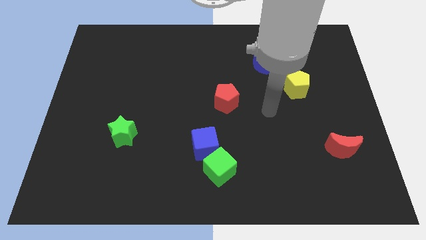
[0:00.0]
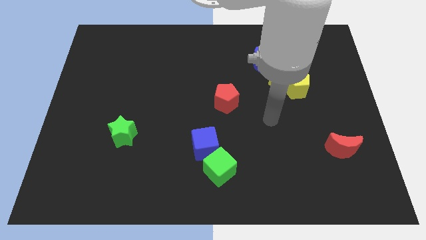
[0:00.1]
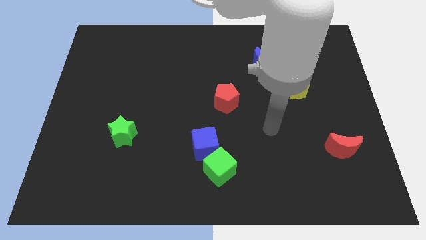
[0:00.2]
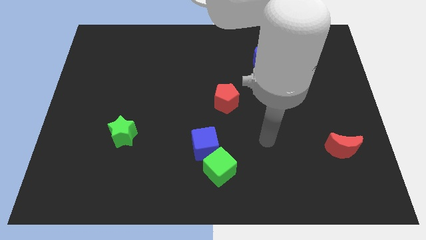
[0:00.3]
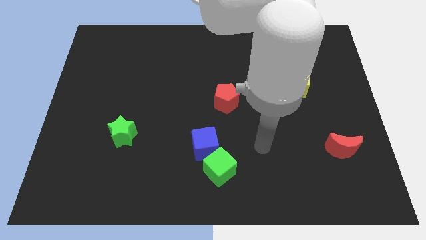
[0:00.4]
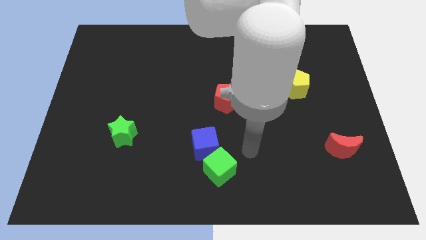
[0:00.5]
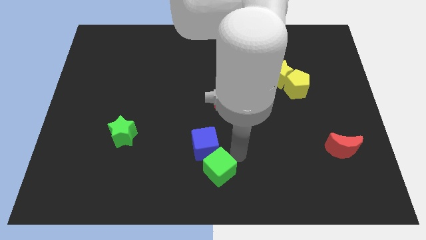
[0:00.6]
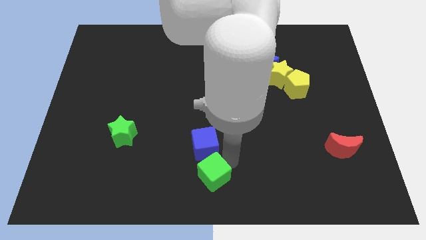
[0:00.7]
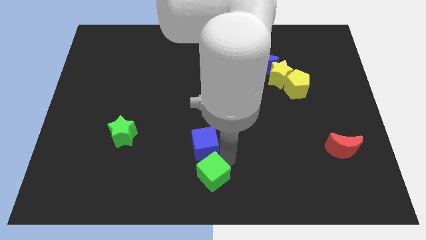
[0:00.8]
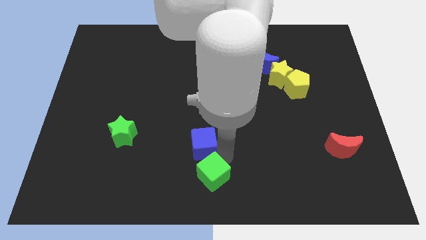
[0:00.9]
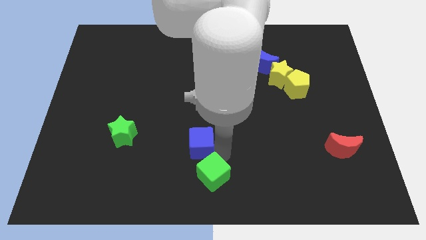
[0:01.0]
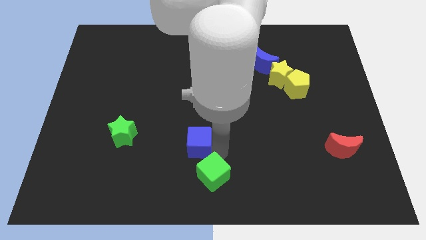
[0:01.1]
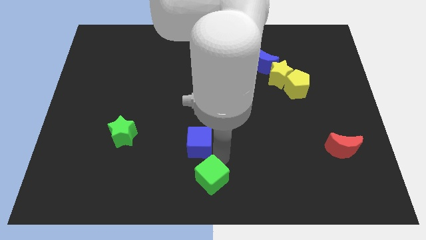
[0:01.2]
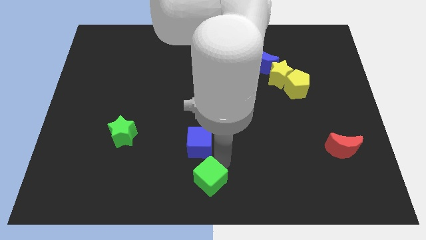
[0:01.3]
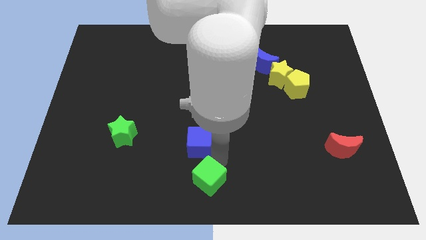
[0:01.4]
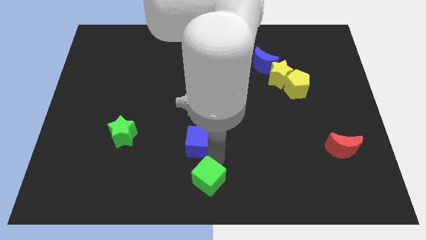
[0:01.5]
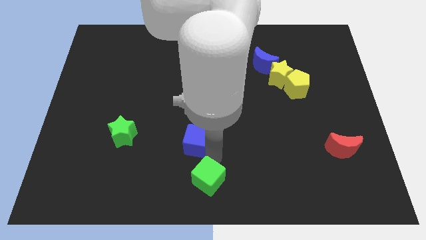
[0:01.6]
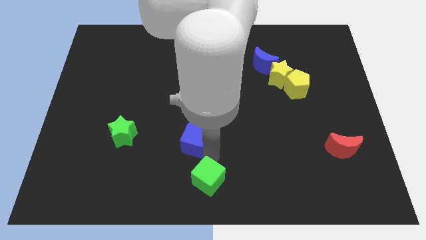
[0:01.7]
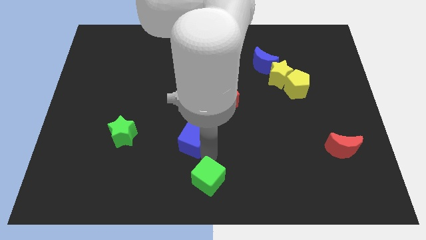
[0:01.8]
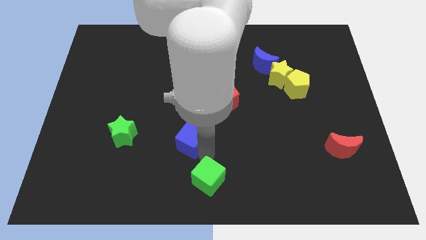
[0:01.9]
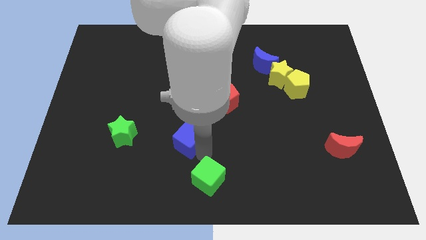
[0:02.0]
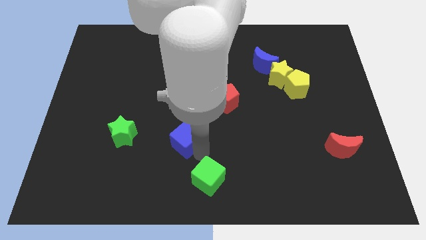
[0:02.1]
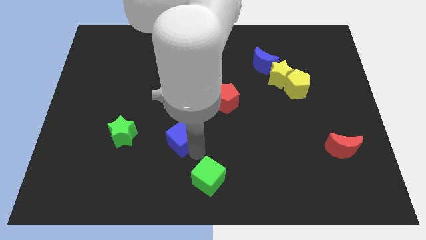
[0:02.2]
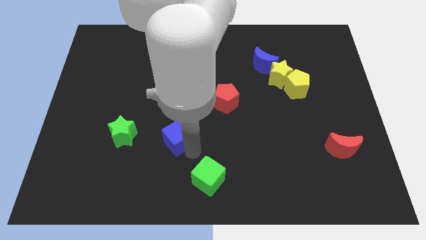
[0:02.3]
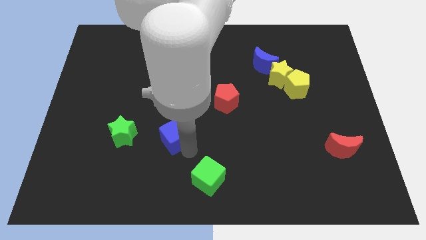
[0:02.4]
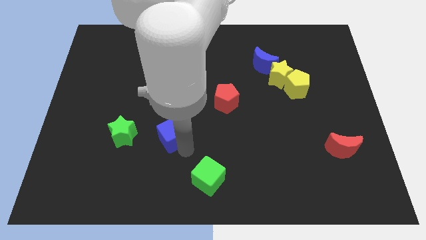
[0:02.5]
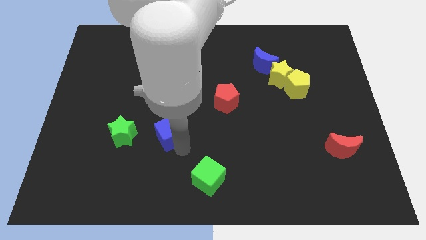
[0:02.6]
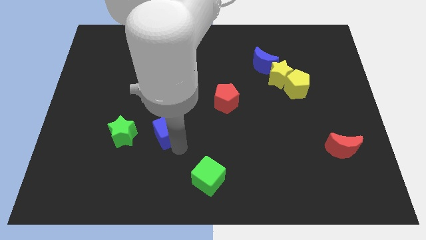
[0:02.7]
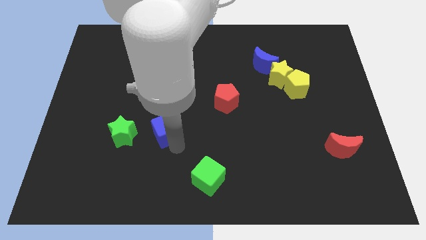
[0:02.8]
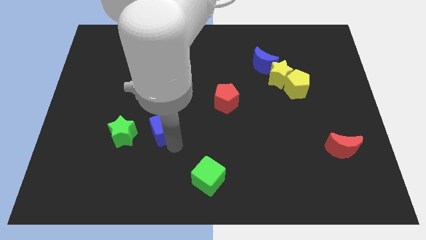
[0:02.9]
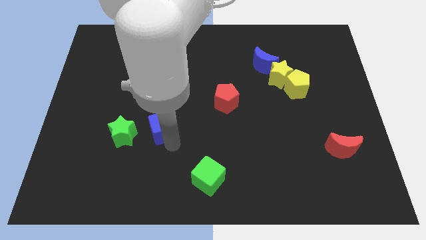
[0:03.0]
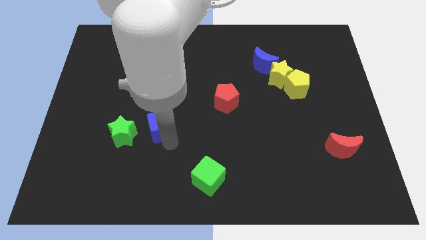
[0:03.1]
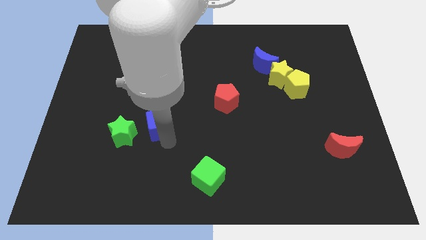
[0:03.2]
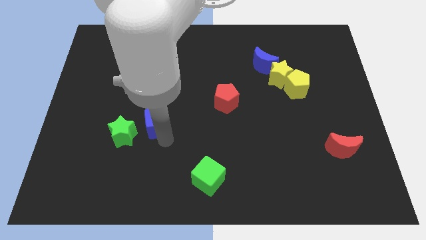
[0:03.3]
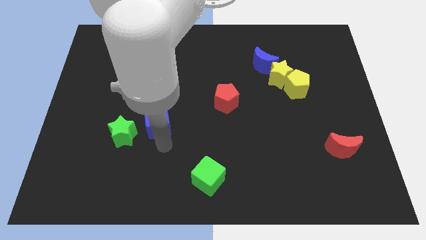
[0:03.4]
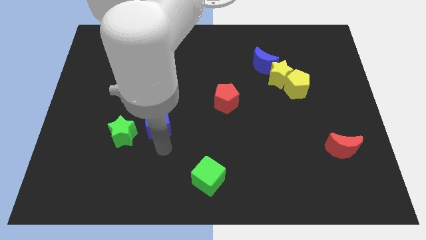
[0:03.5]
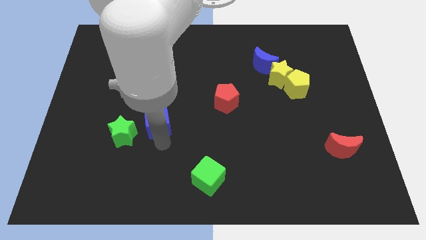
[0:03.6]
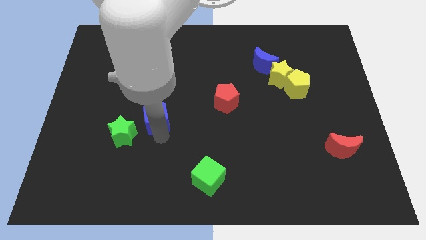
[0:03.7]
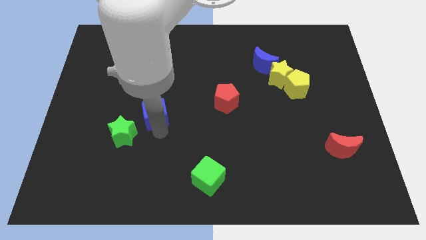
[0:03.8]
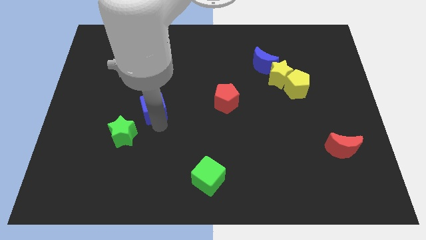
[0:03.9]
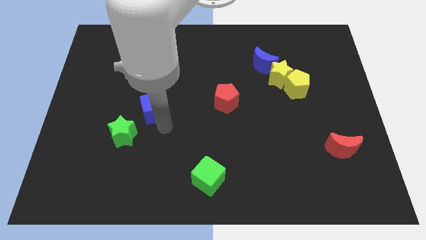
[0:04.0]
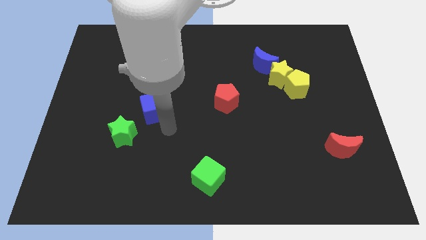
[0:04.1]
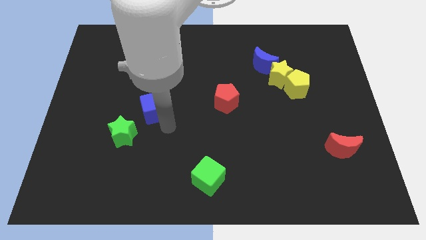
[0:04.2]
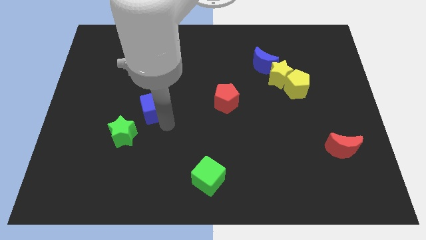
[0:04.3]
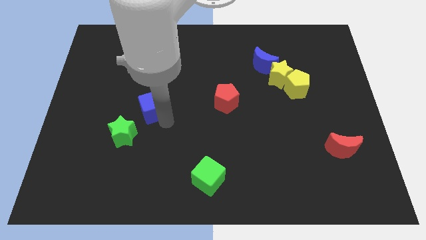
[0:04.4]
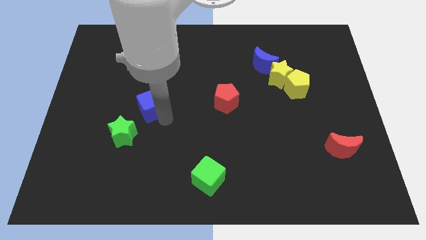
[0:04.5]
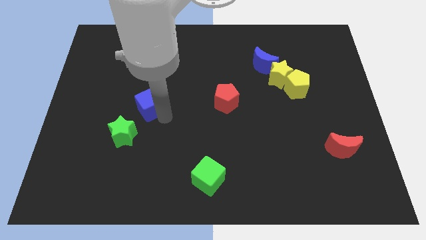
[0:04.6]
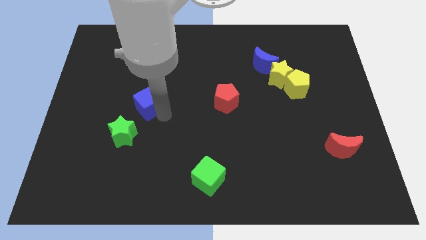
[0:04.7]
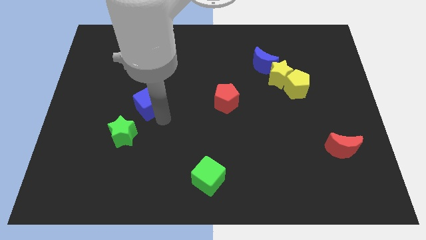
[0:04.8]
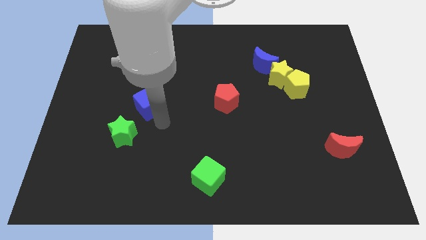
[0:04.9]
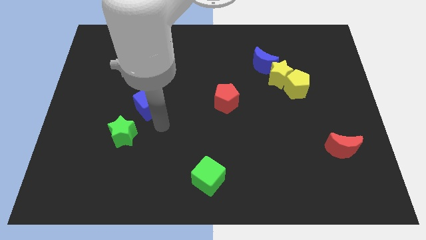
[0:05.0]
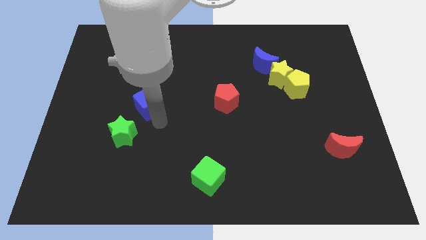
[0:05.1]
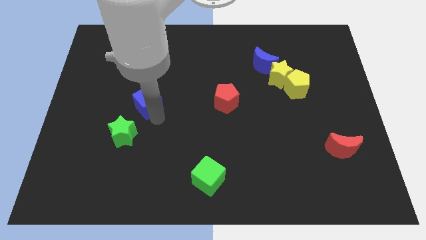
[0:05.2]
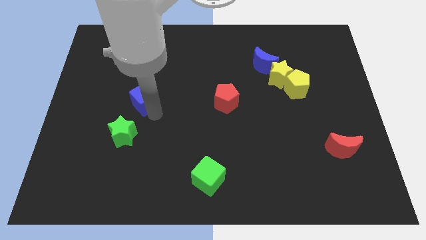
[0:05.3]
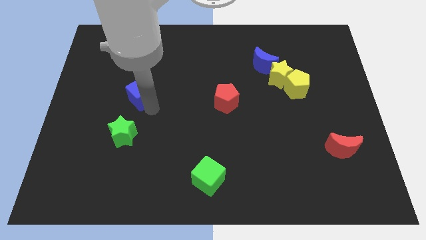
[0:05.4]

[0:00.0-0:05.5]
move the blue cube upwards and to the left diagonally

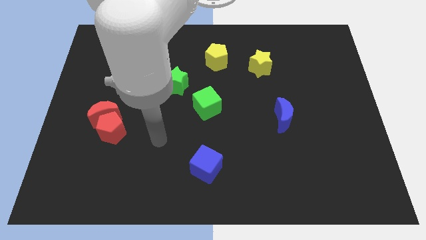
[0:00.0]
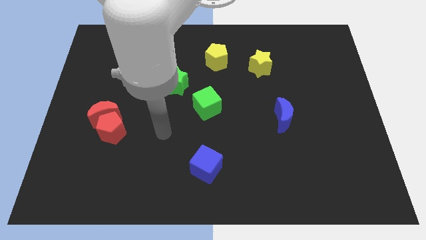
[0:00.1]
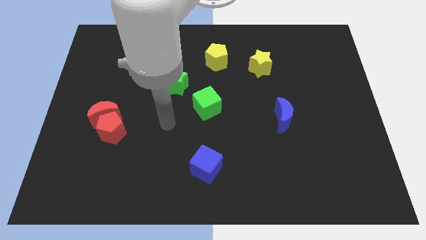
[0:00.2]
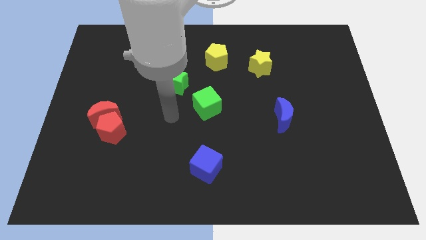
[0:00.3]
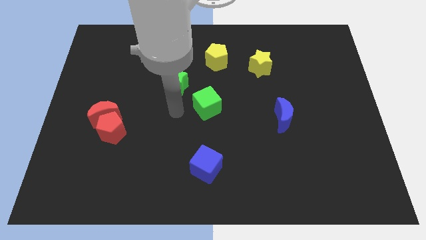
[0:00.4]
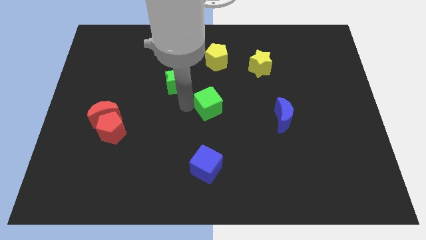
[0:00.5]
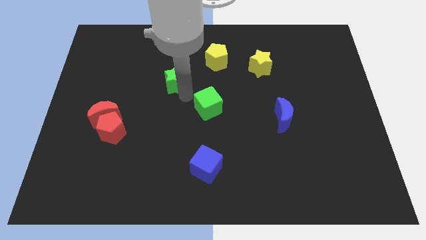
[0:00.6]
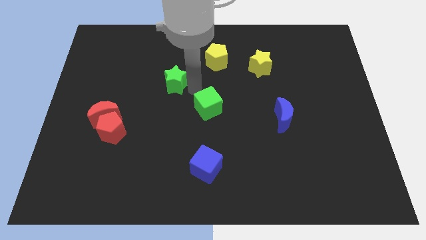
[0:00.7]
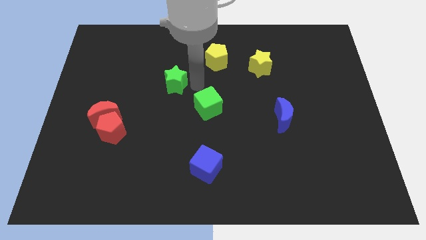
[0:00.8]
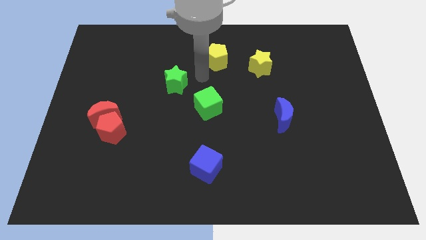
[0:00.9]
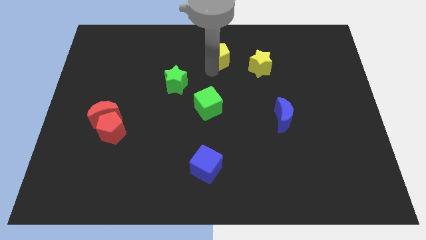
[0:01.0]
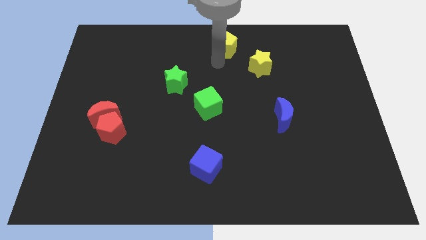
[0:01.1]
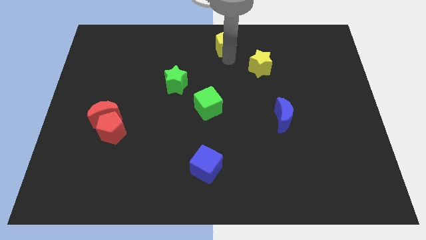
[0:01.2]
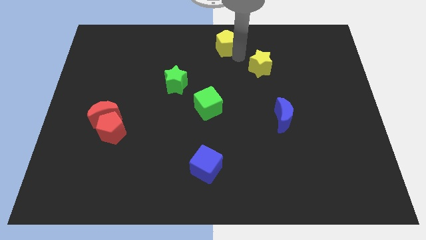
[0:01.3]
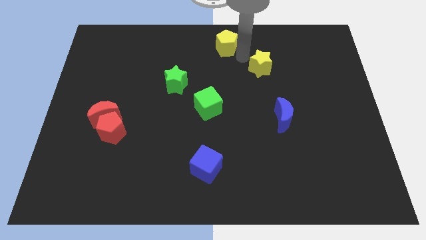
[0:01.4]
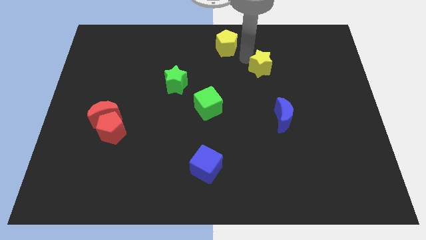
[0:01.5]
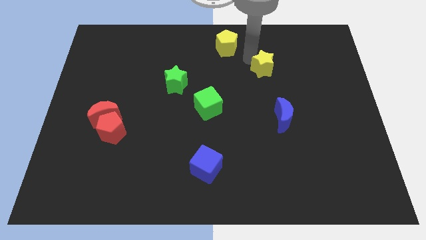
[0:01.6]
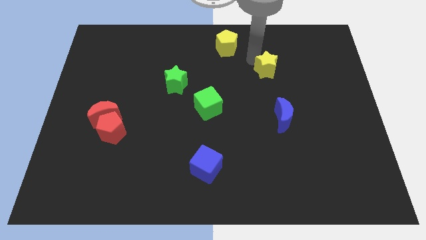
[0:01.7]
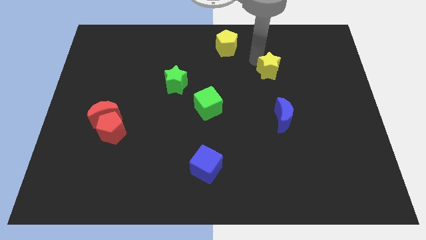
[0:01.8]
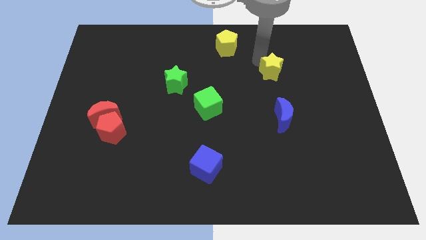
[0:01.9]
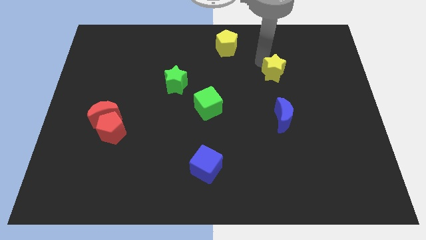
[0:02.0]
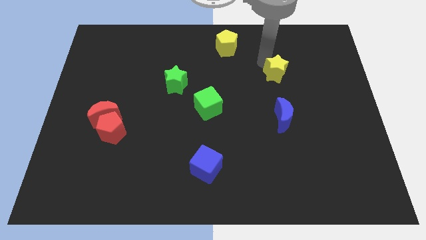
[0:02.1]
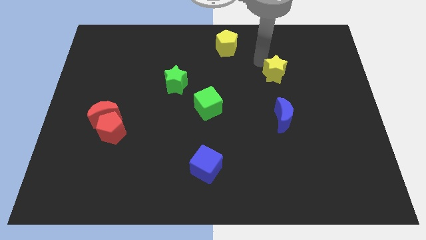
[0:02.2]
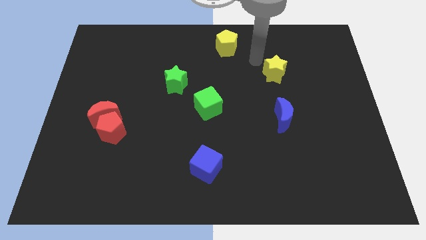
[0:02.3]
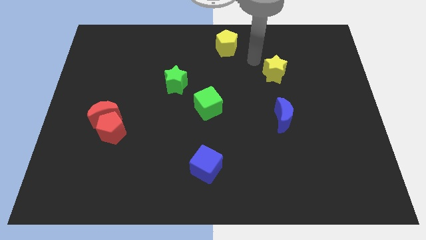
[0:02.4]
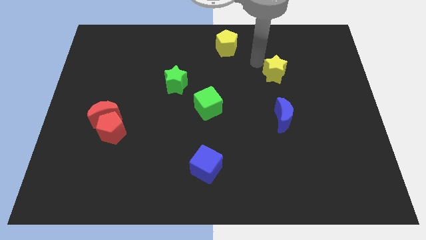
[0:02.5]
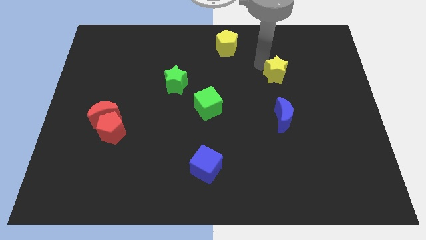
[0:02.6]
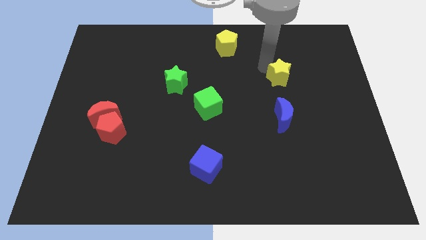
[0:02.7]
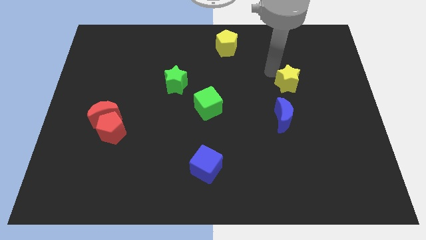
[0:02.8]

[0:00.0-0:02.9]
slide the yellow star a bit diagonally downwards and to the right
